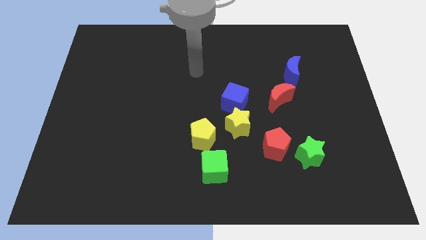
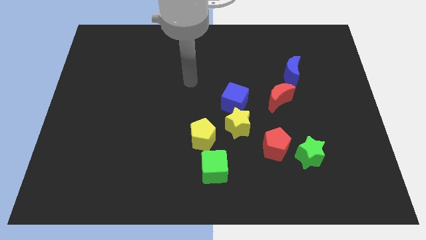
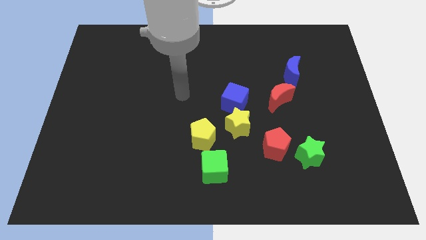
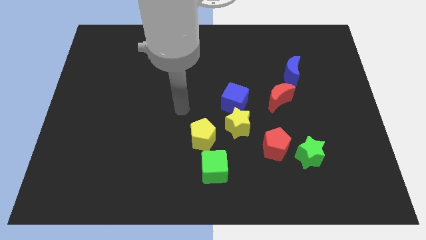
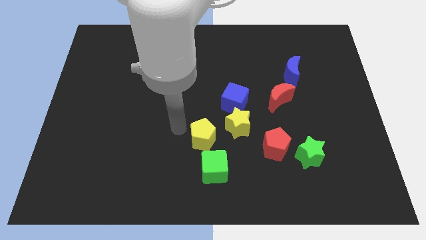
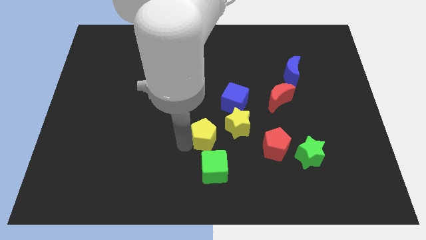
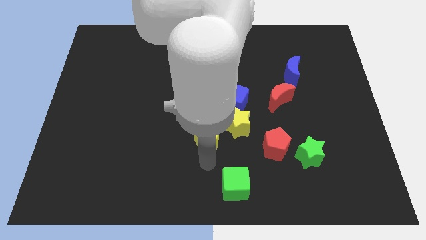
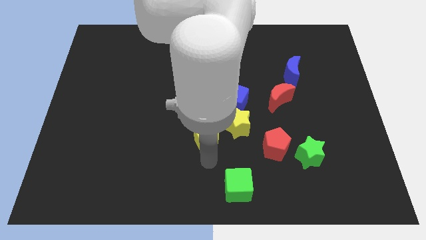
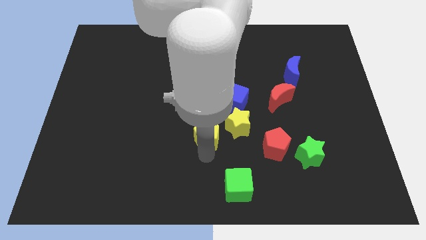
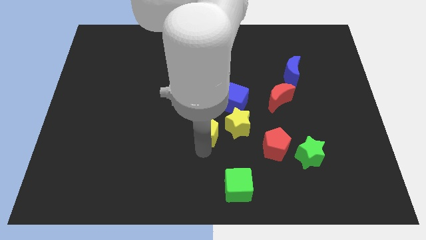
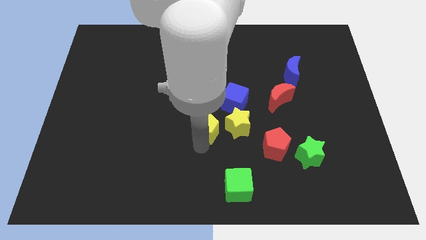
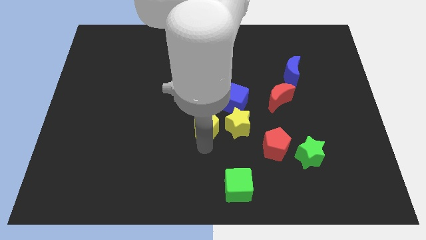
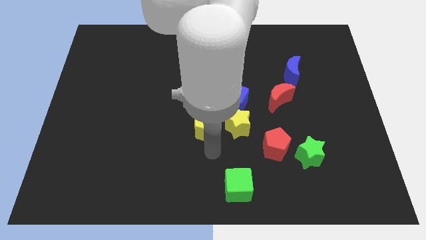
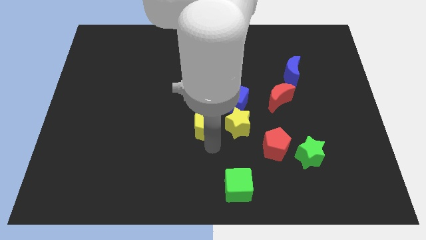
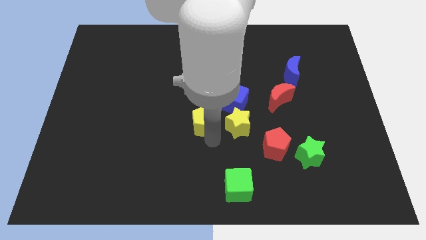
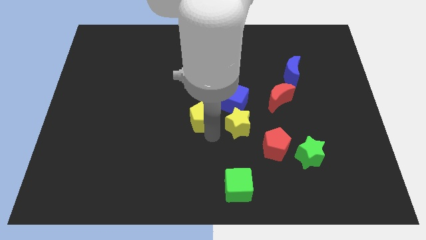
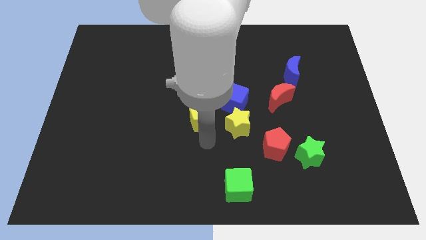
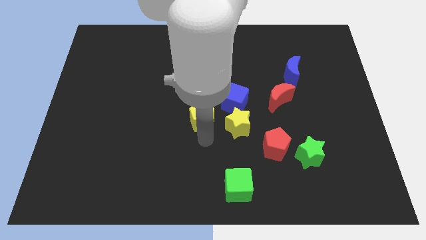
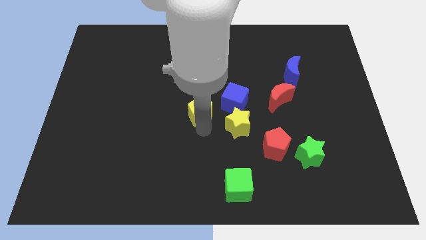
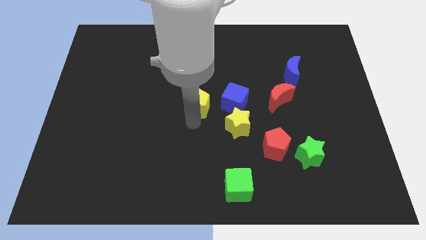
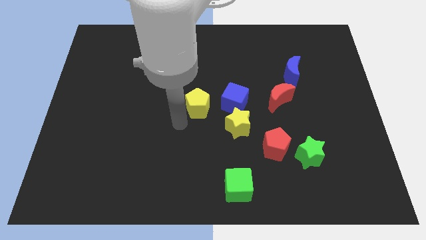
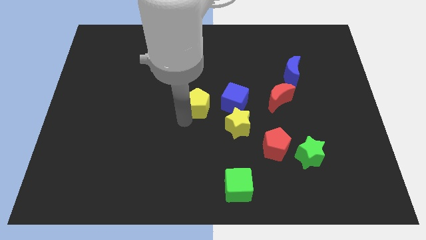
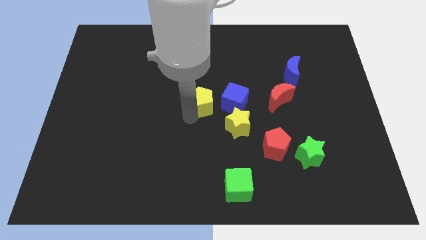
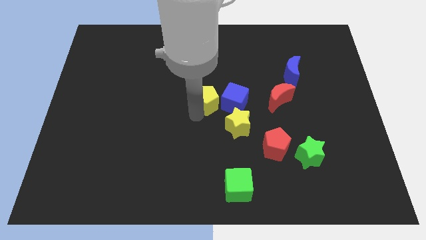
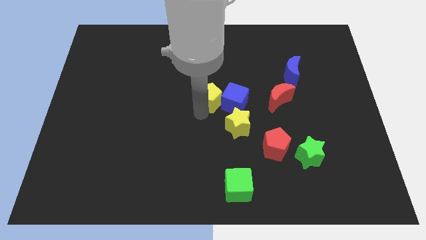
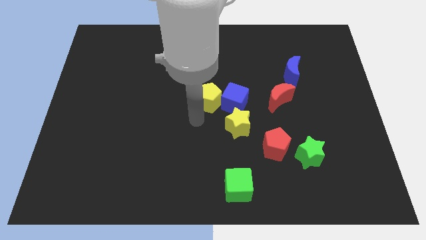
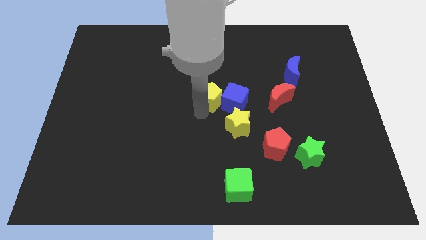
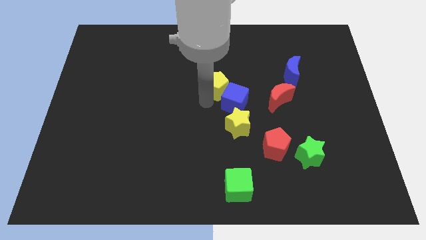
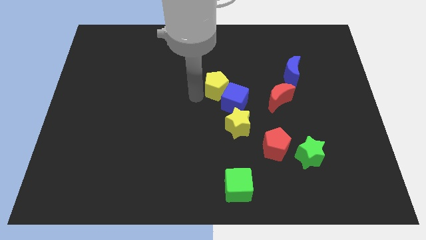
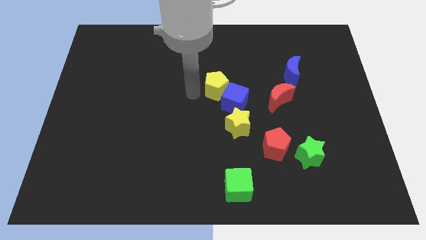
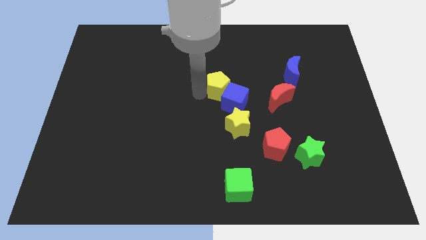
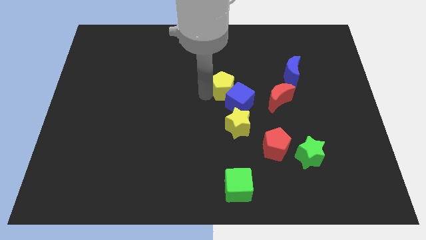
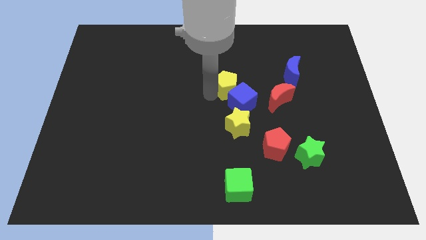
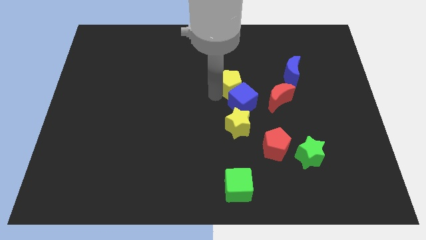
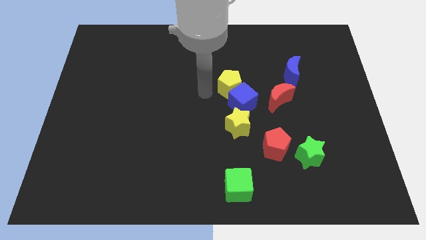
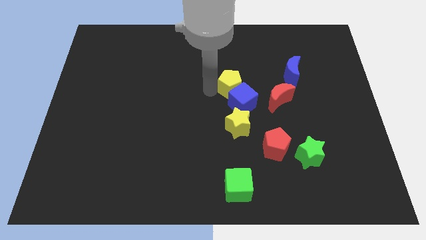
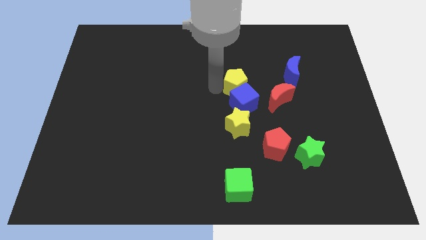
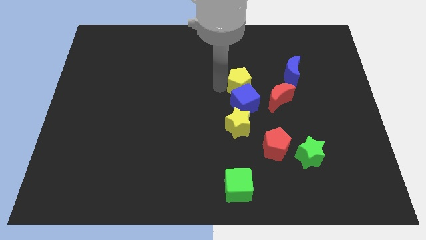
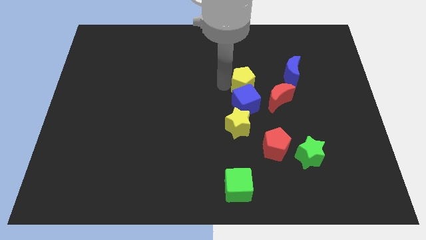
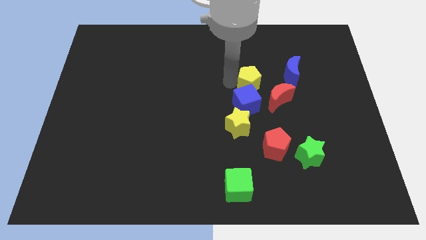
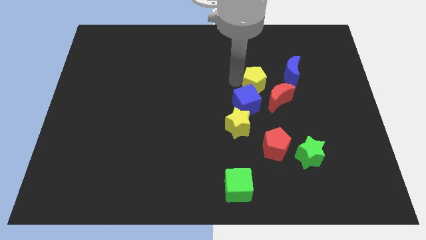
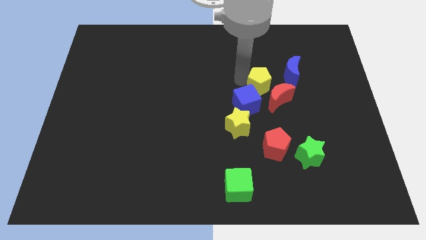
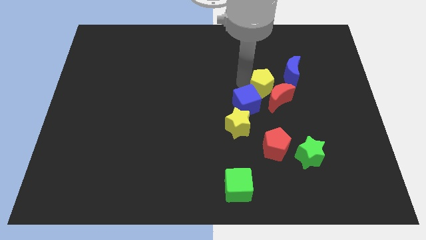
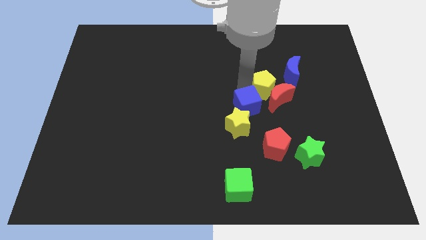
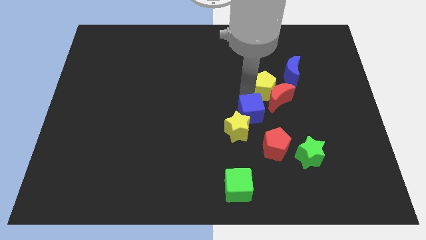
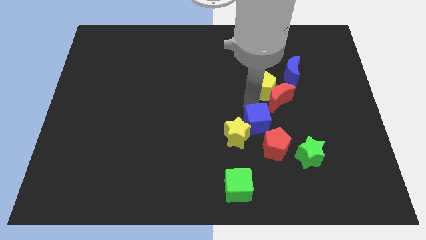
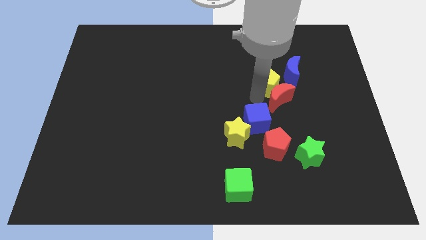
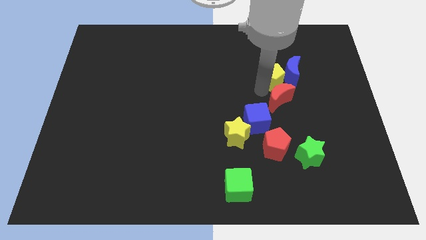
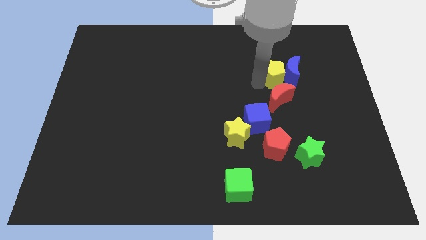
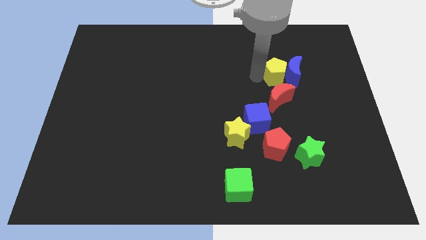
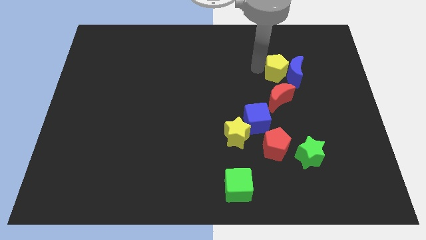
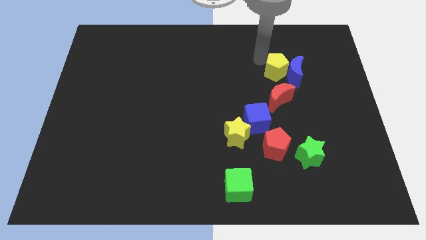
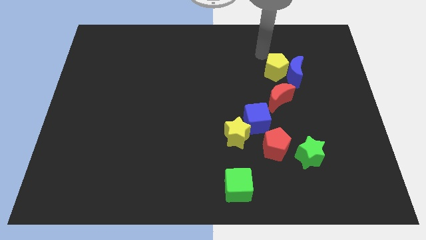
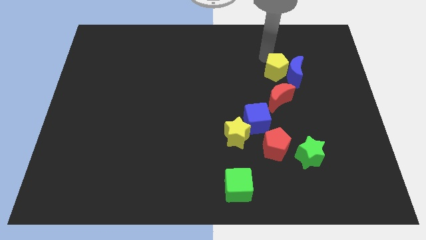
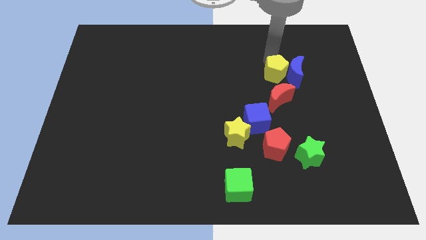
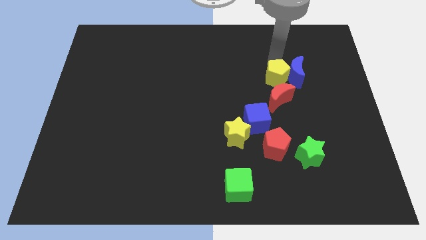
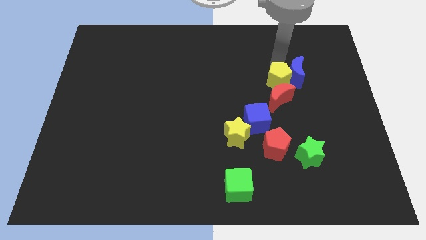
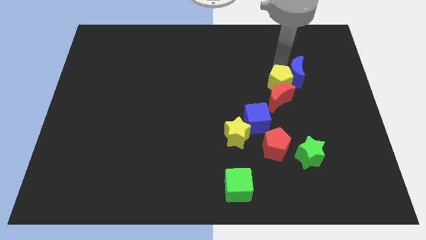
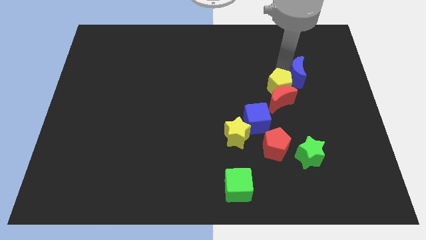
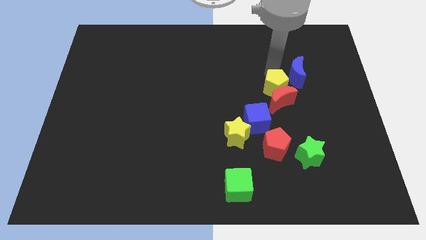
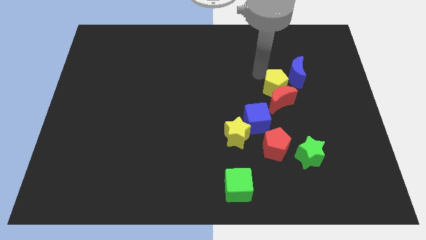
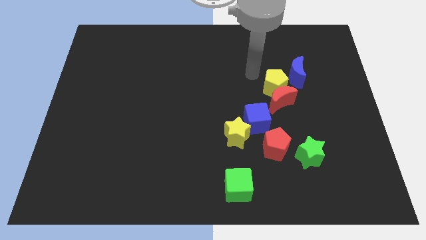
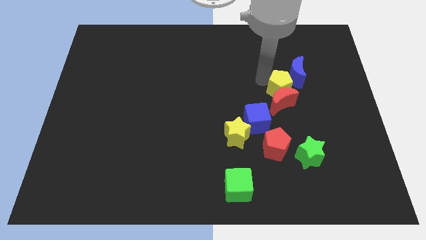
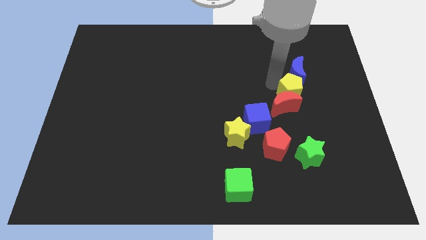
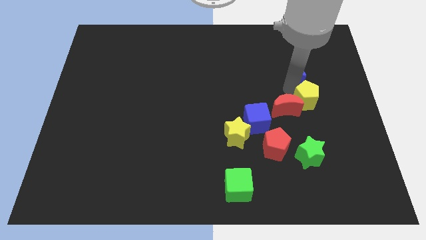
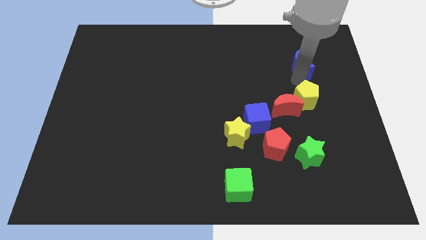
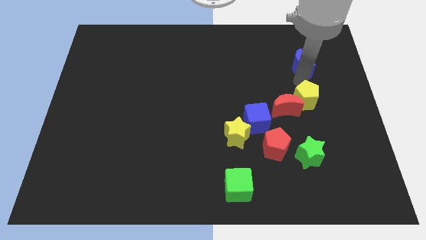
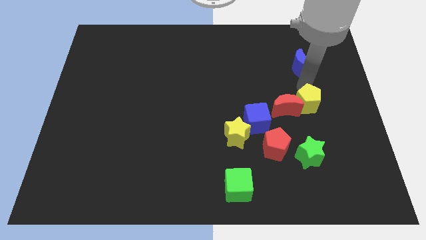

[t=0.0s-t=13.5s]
move the yellow pentagon to the bottom right of the red moon

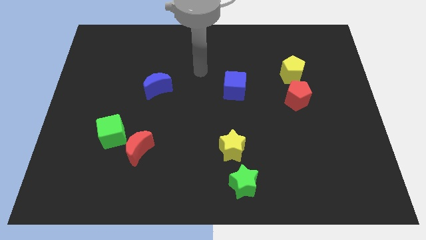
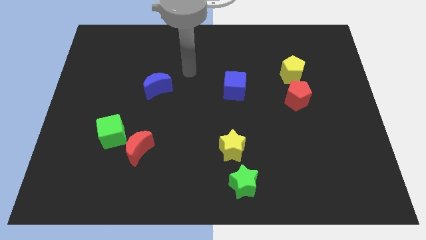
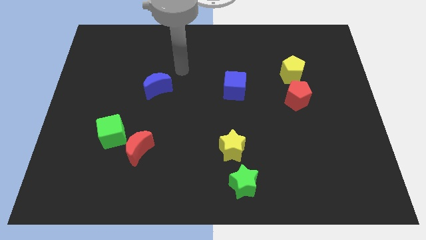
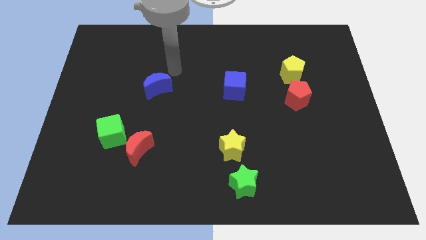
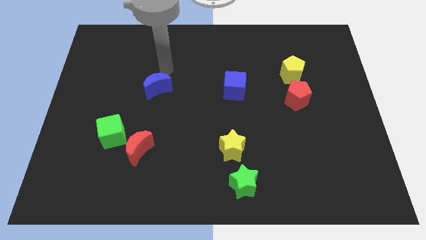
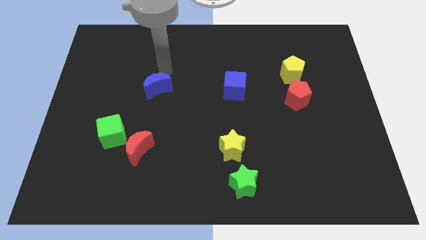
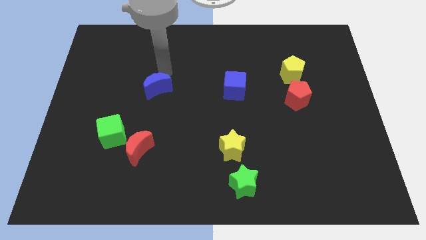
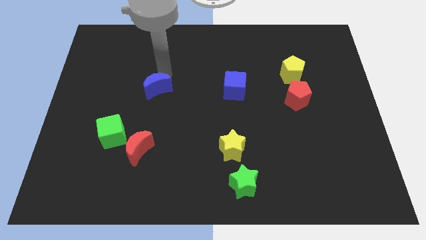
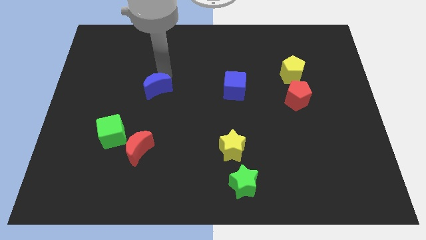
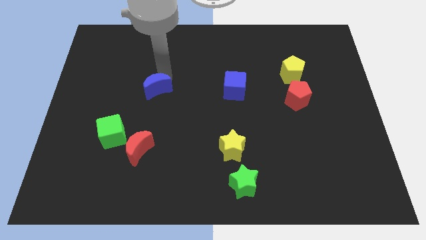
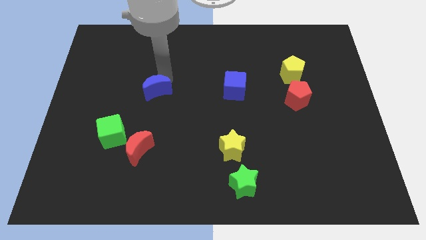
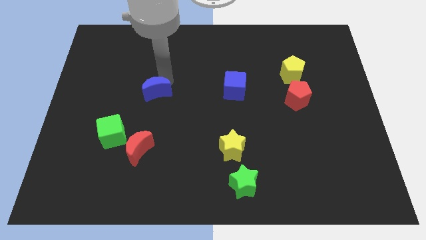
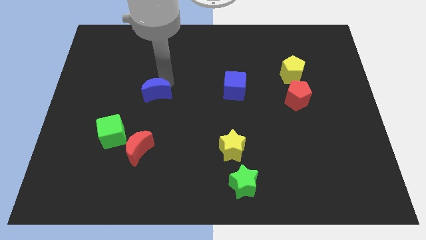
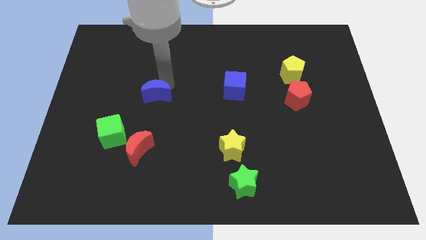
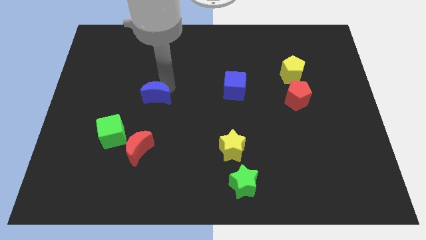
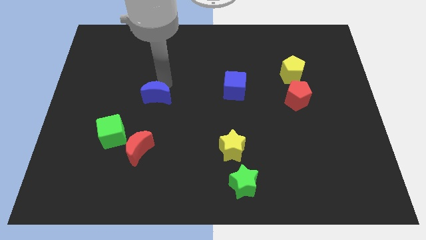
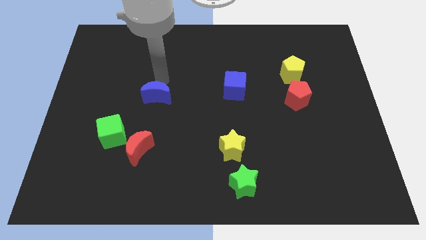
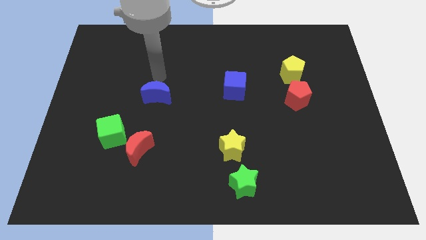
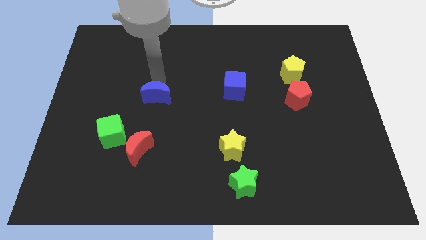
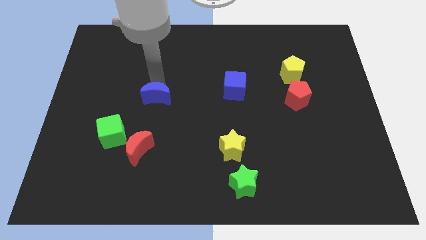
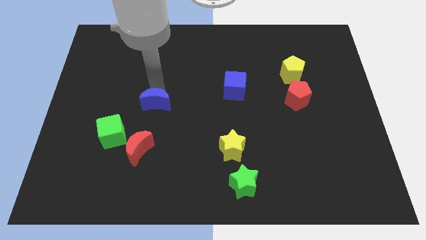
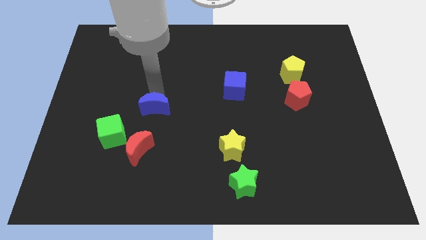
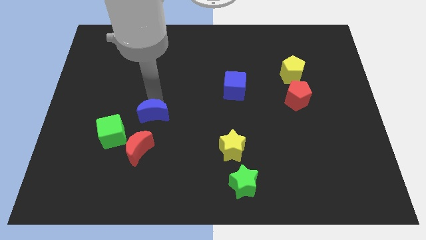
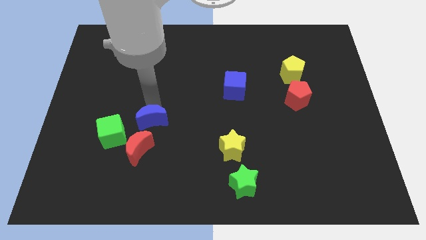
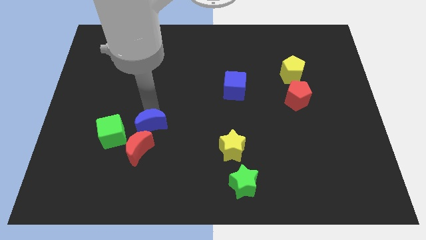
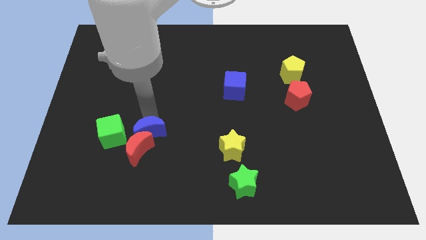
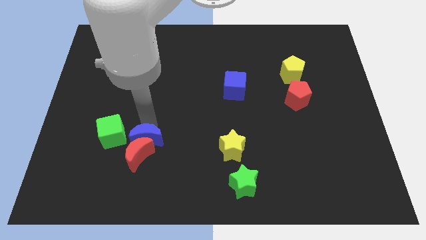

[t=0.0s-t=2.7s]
put the blue moon to the bottom right side of the green cube
